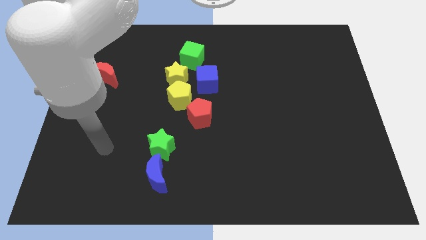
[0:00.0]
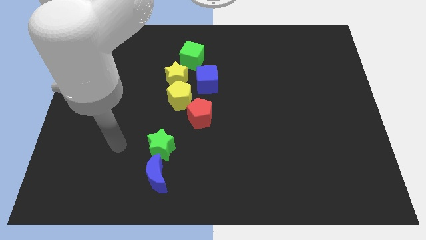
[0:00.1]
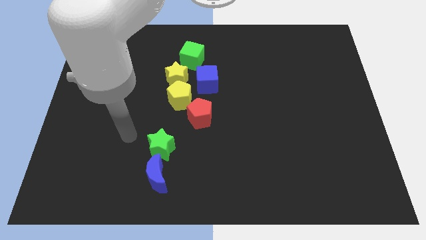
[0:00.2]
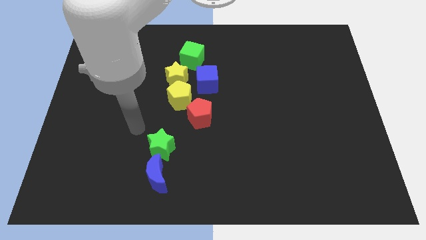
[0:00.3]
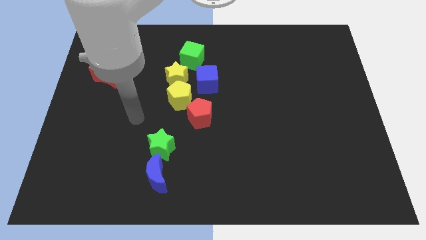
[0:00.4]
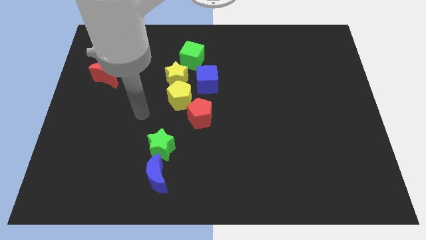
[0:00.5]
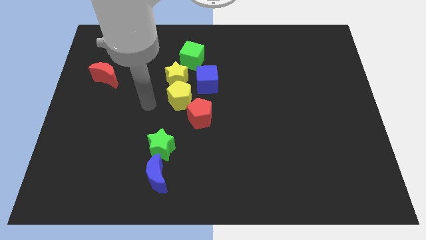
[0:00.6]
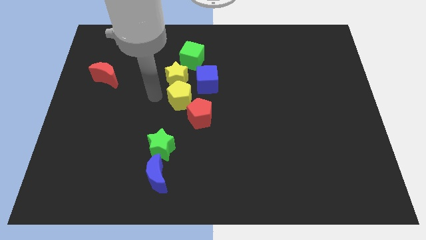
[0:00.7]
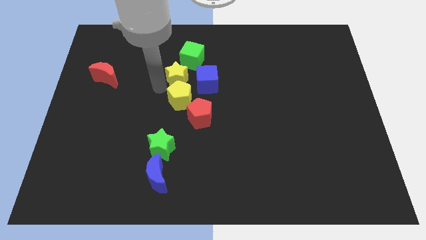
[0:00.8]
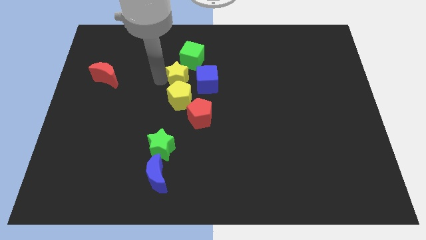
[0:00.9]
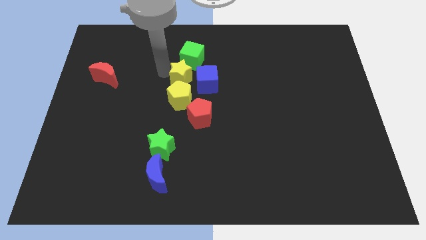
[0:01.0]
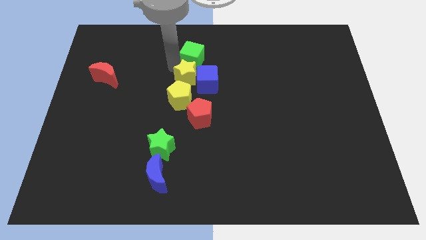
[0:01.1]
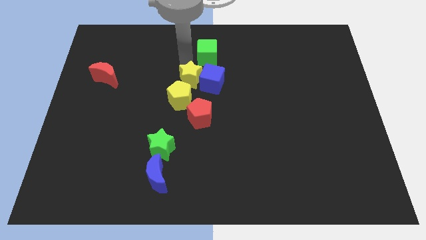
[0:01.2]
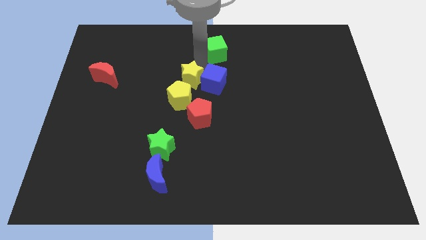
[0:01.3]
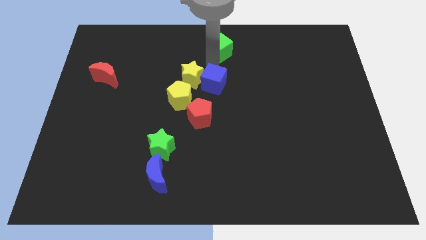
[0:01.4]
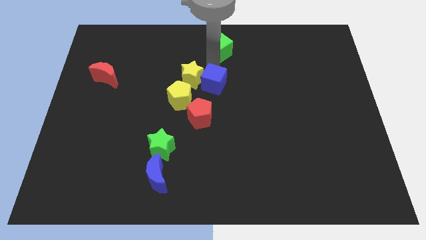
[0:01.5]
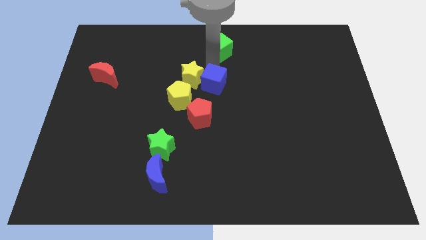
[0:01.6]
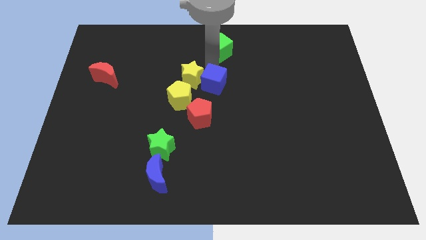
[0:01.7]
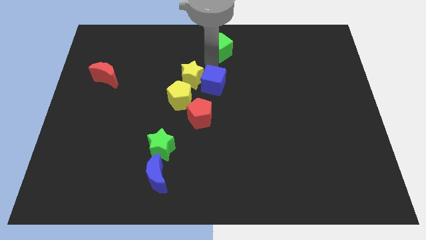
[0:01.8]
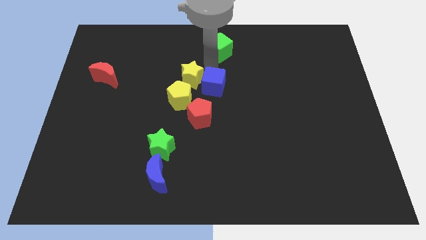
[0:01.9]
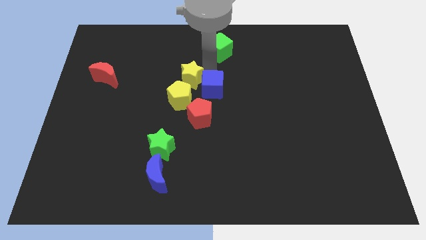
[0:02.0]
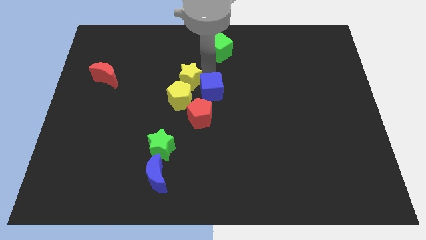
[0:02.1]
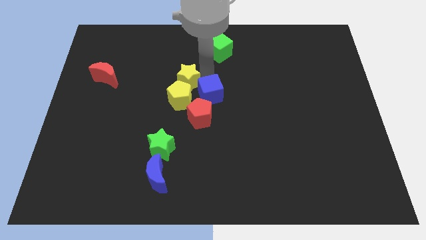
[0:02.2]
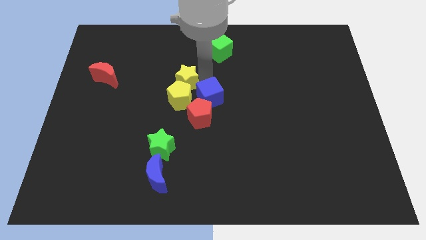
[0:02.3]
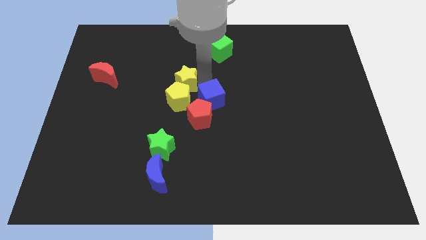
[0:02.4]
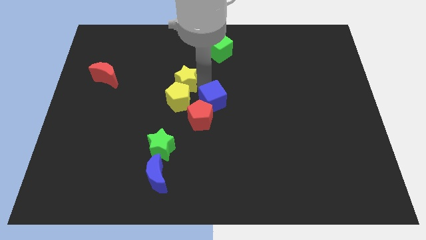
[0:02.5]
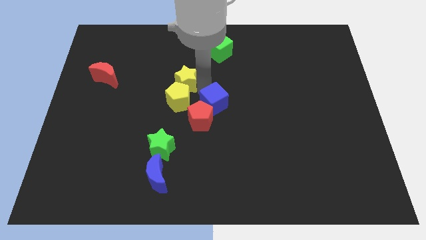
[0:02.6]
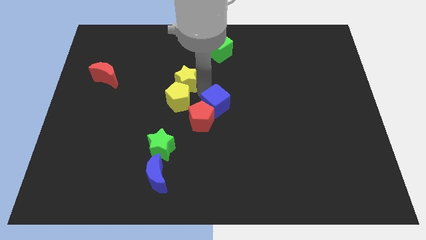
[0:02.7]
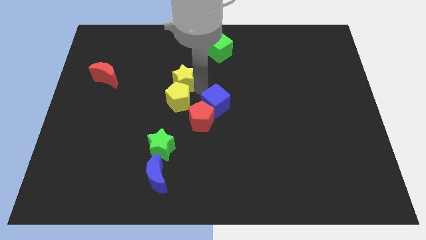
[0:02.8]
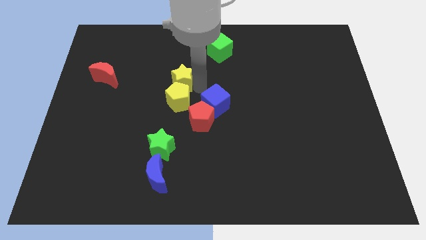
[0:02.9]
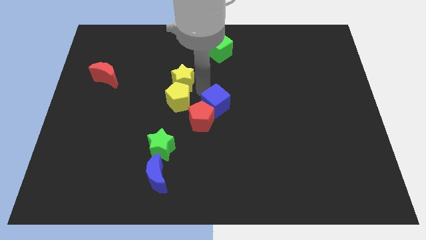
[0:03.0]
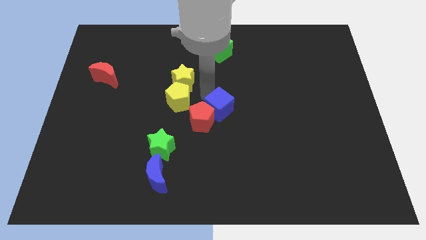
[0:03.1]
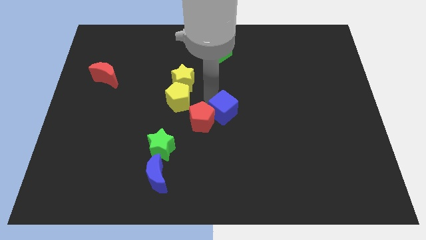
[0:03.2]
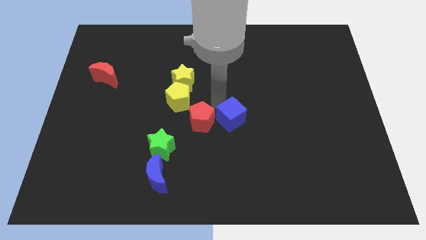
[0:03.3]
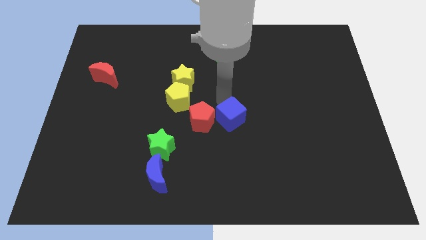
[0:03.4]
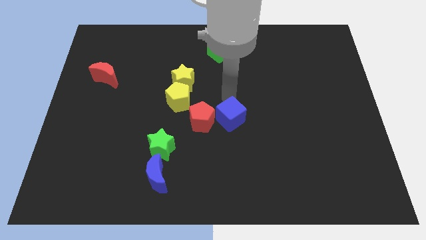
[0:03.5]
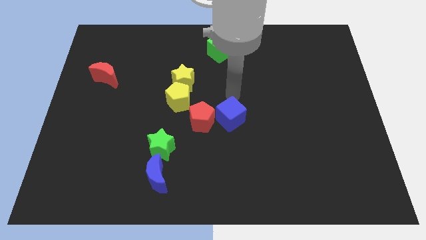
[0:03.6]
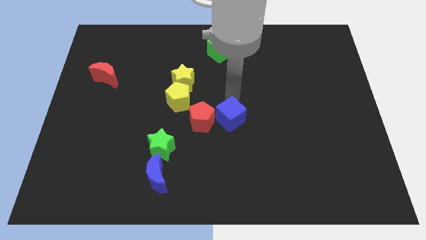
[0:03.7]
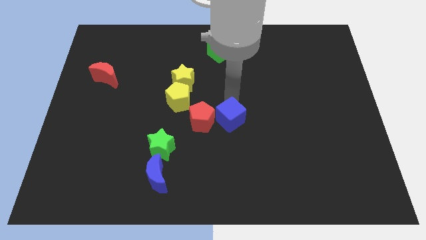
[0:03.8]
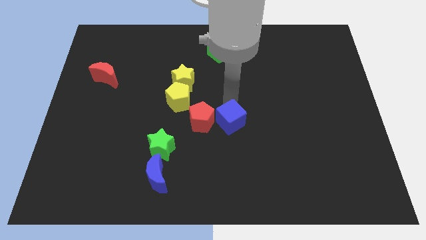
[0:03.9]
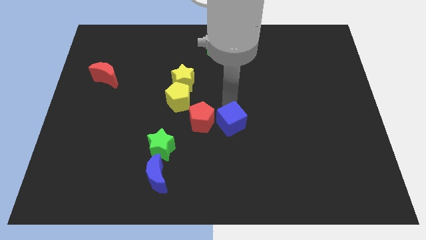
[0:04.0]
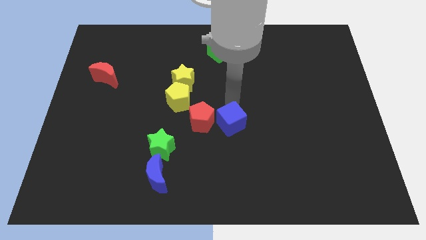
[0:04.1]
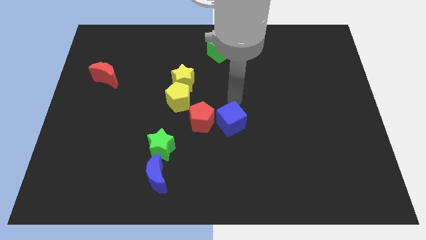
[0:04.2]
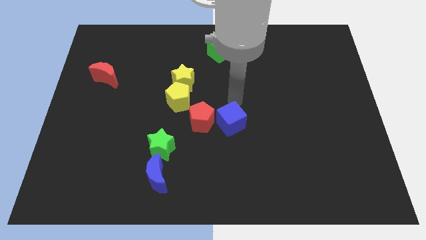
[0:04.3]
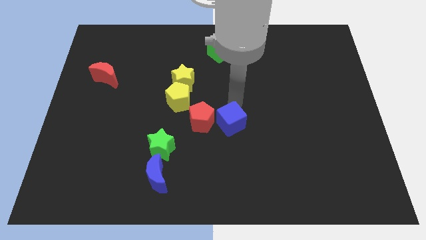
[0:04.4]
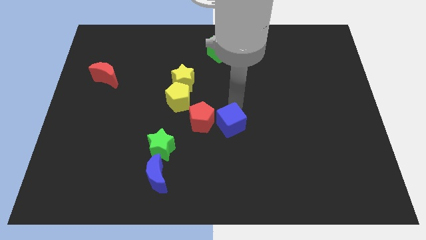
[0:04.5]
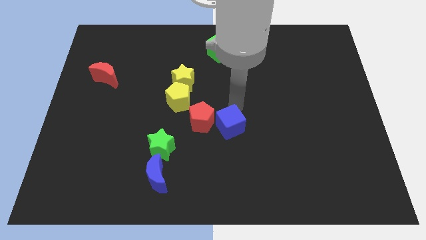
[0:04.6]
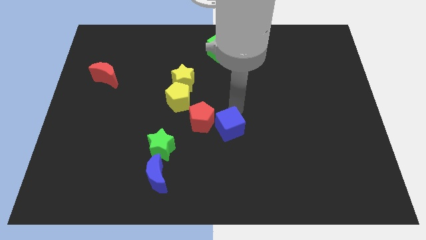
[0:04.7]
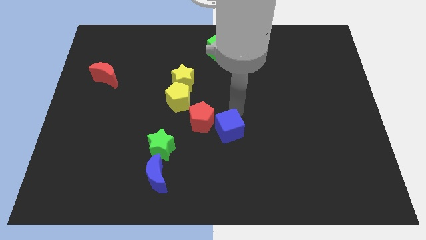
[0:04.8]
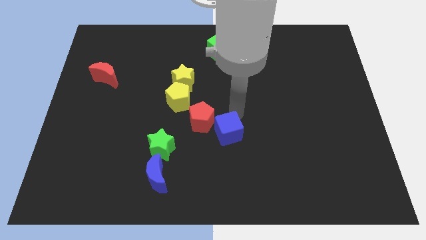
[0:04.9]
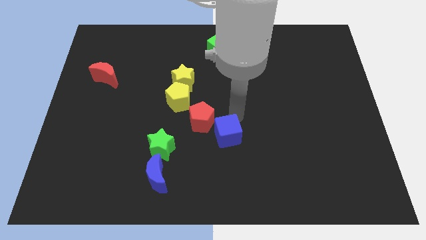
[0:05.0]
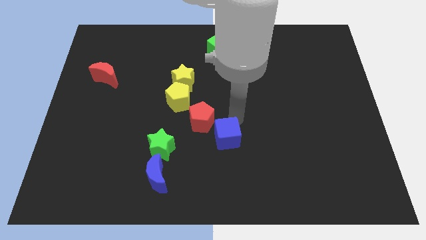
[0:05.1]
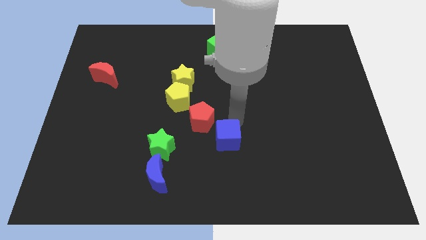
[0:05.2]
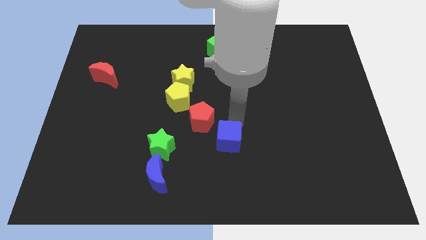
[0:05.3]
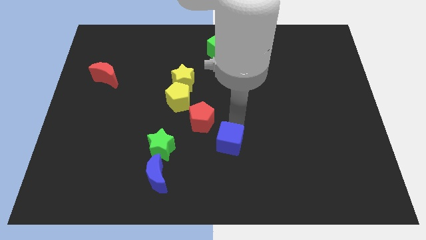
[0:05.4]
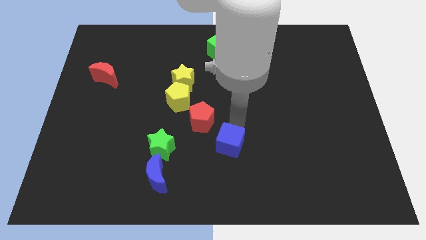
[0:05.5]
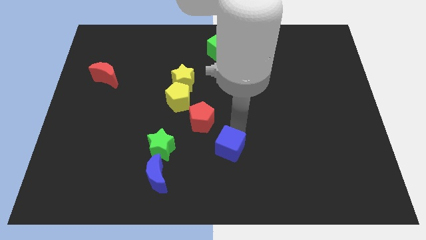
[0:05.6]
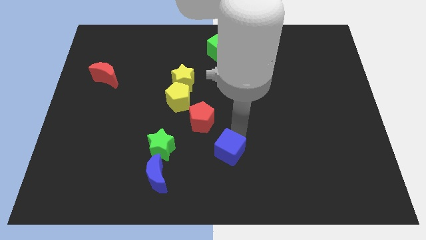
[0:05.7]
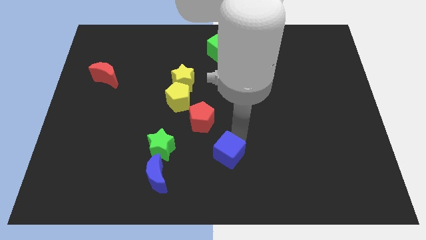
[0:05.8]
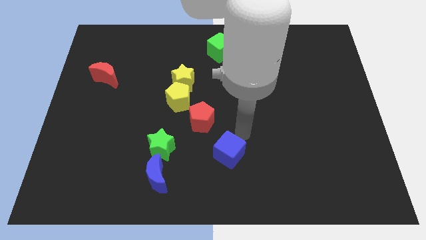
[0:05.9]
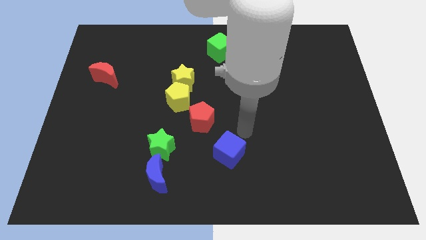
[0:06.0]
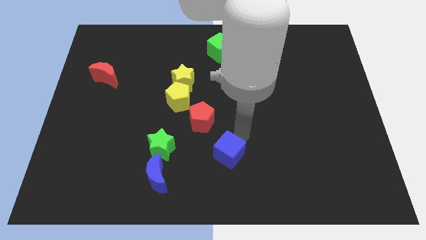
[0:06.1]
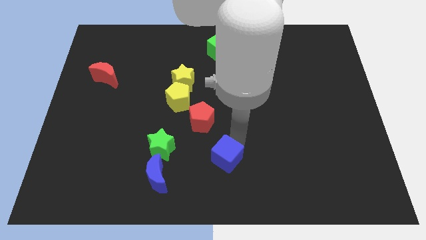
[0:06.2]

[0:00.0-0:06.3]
slide the blue cube to the bottom side
